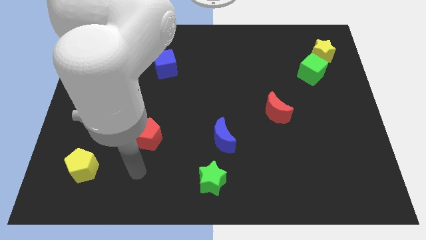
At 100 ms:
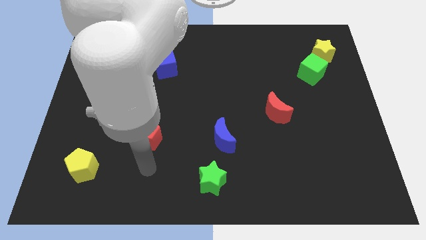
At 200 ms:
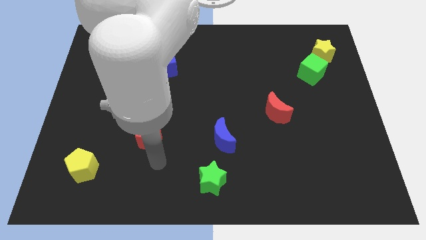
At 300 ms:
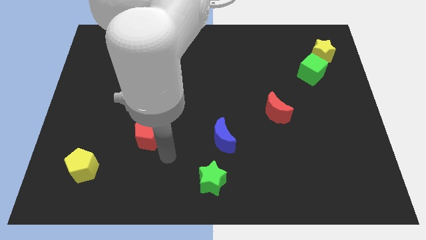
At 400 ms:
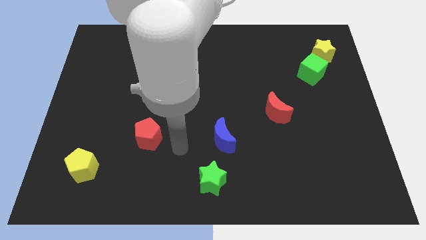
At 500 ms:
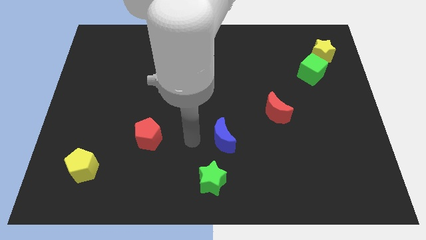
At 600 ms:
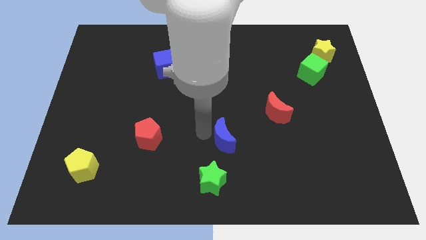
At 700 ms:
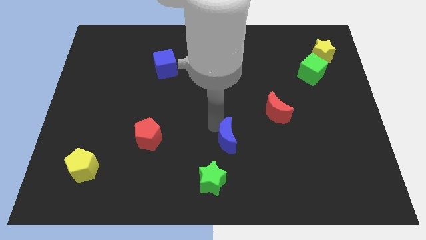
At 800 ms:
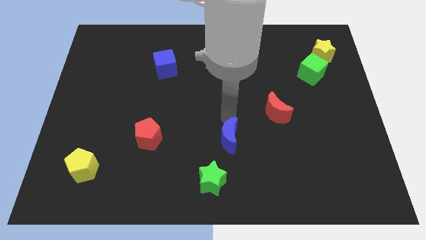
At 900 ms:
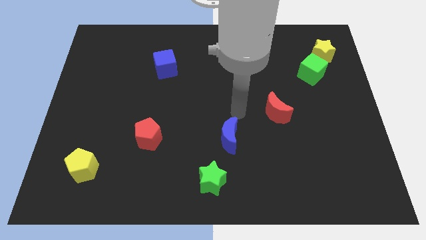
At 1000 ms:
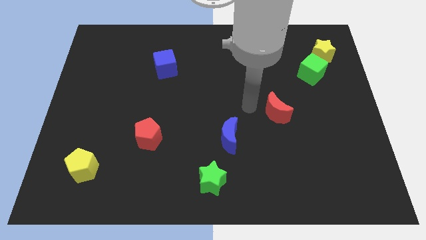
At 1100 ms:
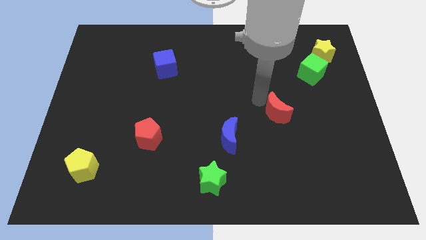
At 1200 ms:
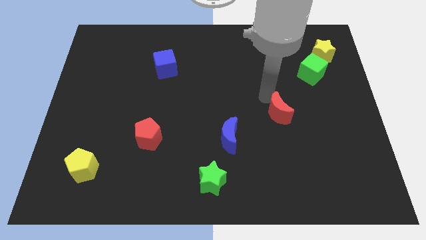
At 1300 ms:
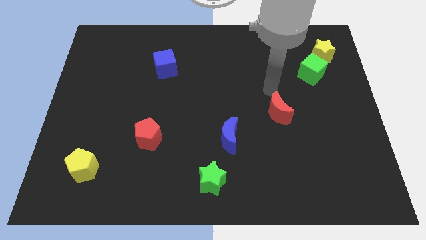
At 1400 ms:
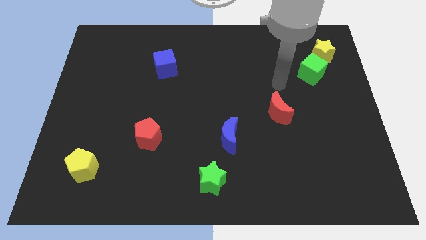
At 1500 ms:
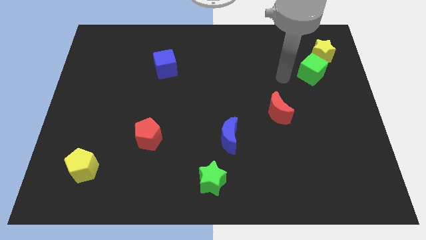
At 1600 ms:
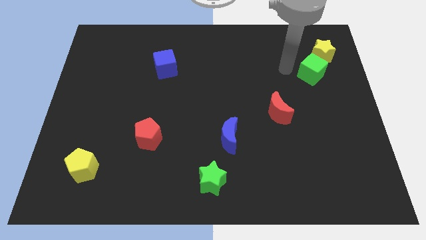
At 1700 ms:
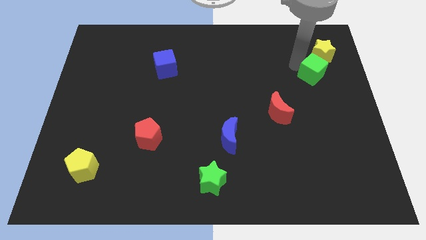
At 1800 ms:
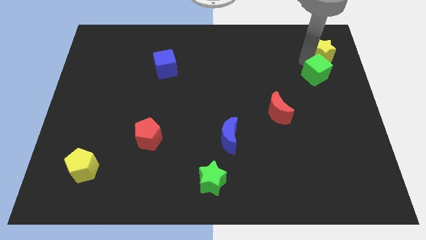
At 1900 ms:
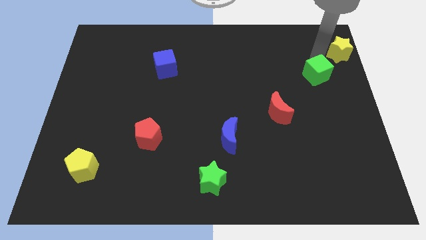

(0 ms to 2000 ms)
pull the green cube apart from the yellow star

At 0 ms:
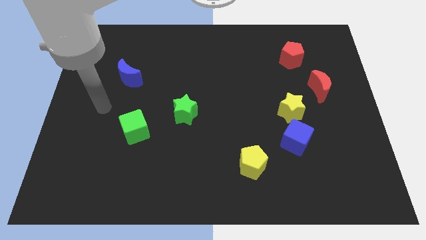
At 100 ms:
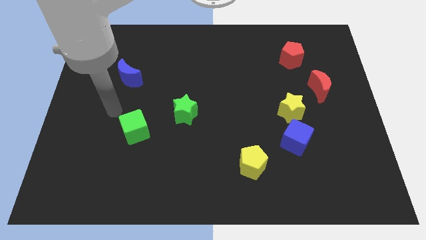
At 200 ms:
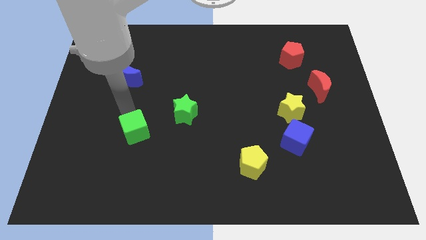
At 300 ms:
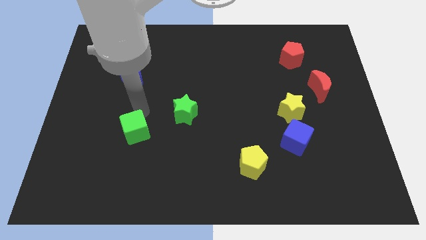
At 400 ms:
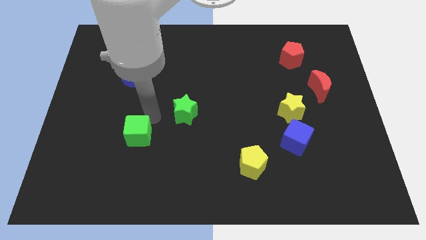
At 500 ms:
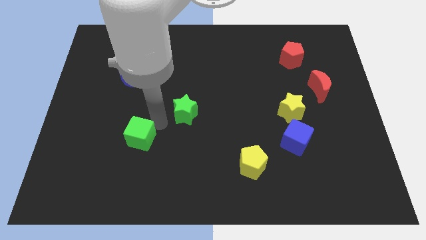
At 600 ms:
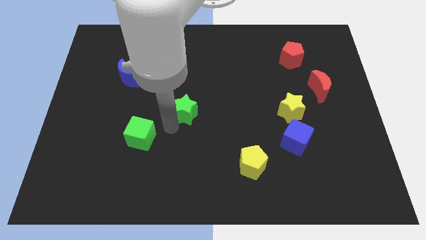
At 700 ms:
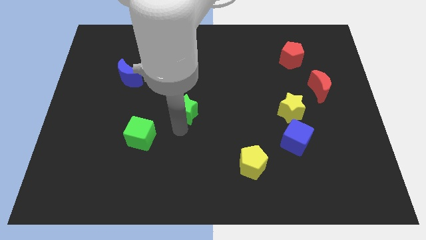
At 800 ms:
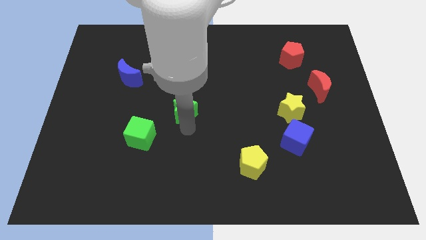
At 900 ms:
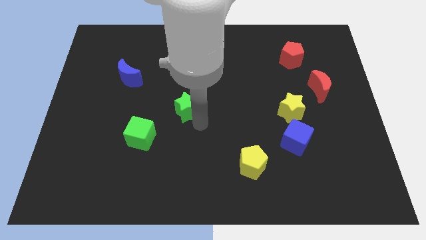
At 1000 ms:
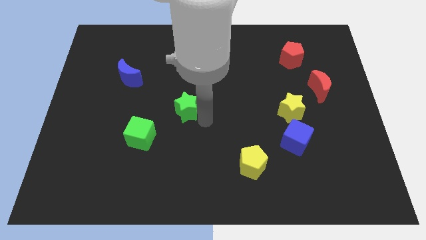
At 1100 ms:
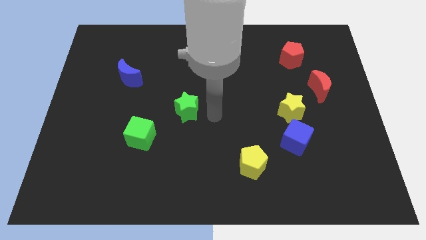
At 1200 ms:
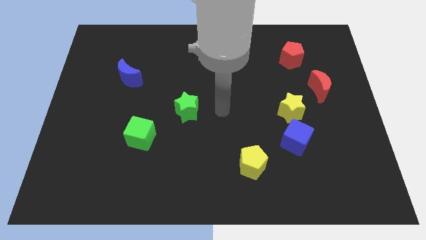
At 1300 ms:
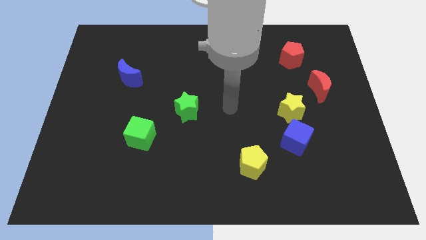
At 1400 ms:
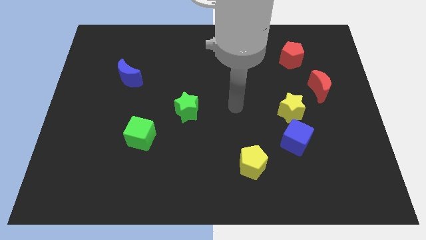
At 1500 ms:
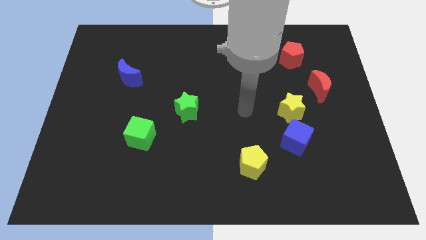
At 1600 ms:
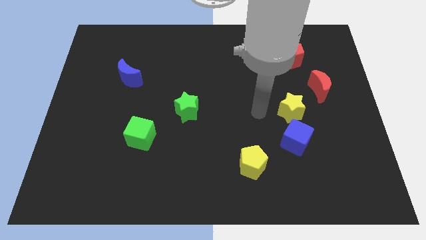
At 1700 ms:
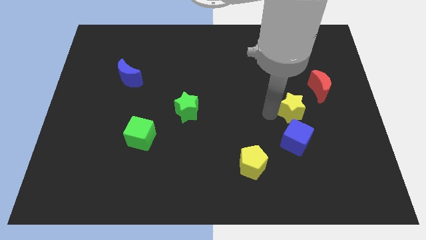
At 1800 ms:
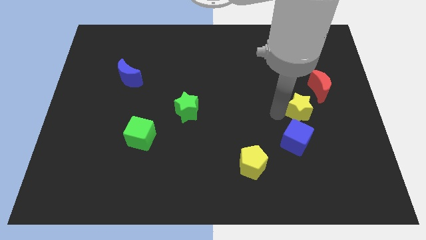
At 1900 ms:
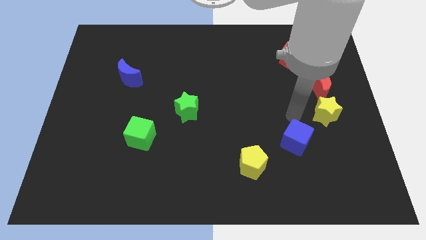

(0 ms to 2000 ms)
separate the blue cube from the yellow star

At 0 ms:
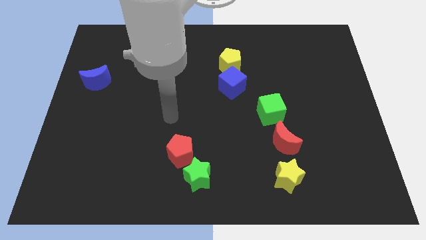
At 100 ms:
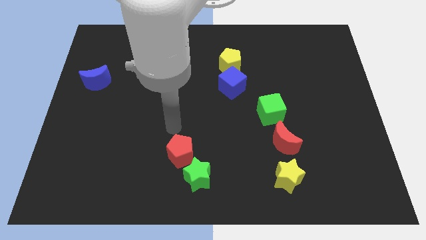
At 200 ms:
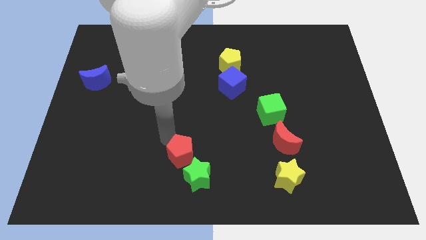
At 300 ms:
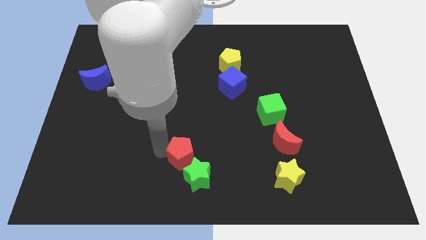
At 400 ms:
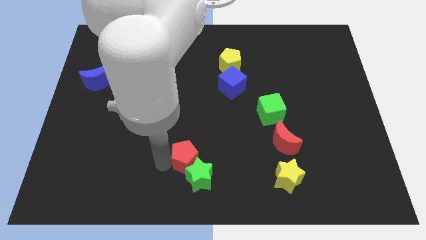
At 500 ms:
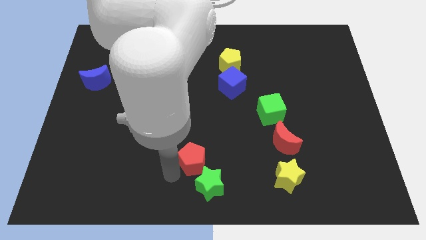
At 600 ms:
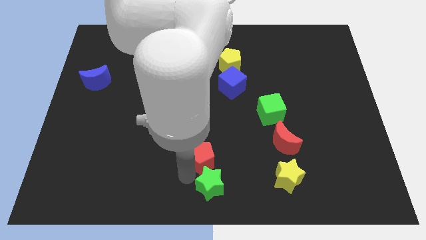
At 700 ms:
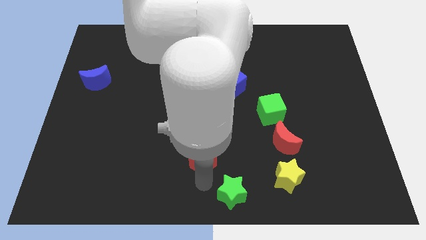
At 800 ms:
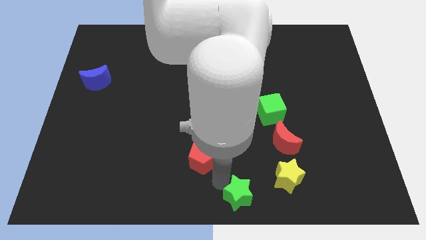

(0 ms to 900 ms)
move the red pentagon away from the green star

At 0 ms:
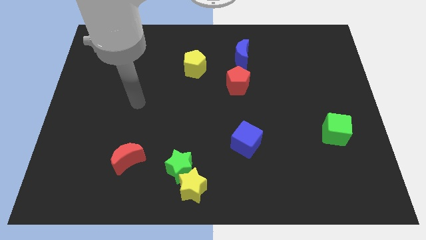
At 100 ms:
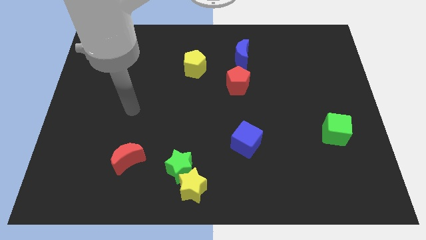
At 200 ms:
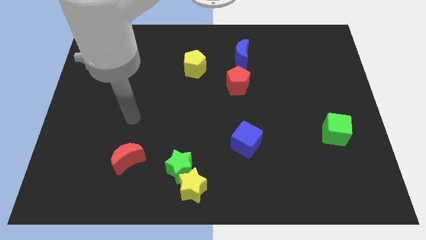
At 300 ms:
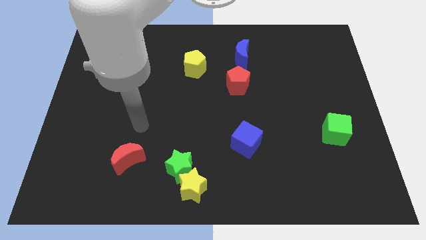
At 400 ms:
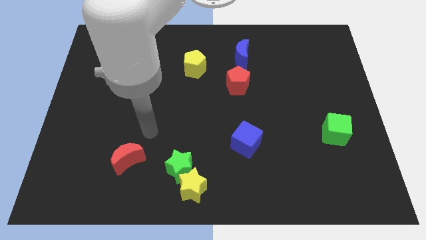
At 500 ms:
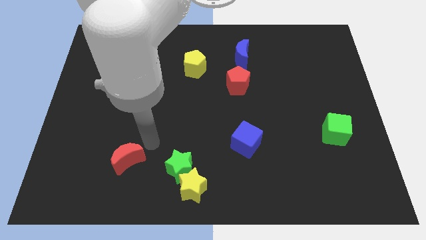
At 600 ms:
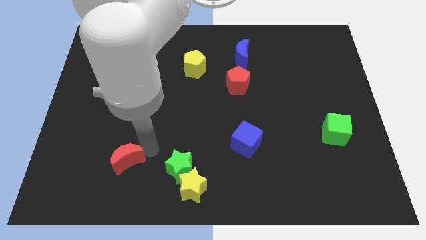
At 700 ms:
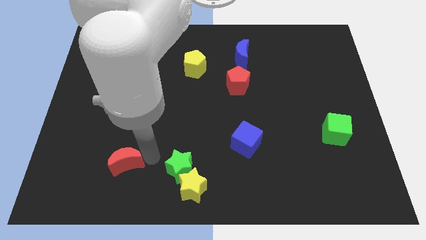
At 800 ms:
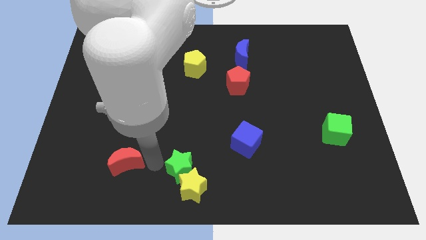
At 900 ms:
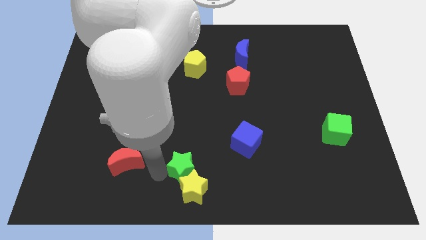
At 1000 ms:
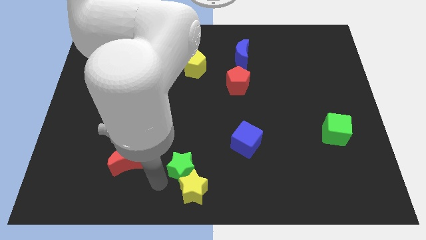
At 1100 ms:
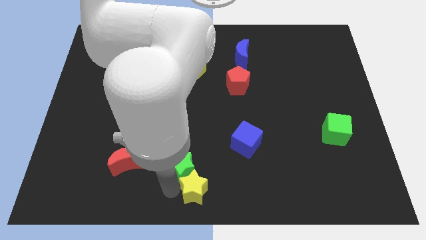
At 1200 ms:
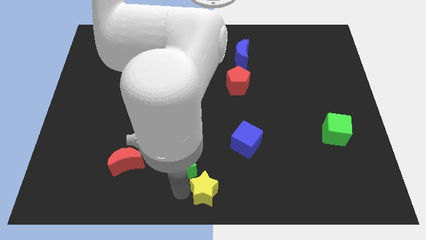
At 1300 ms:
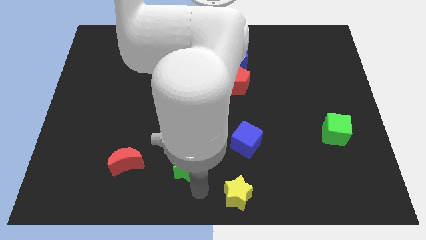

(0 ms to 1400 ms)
move the green star away from the yellow star

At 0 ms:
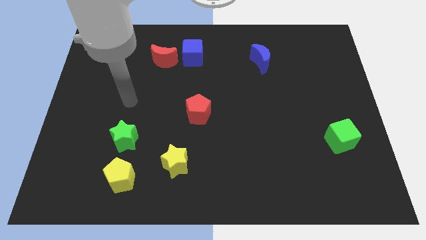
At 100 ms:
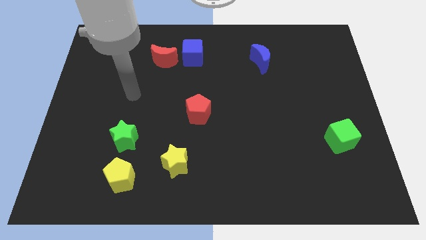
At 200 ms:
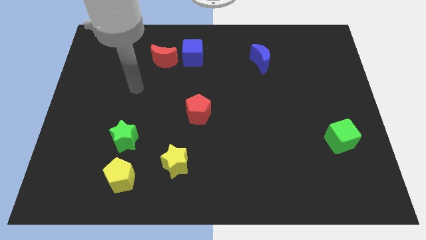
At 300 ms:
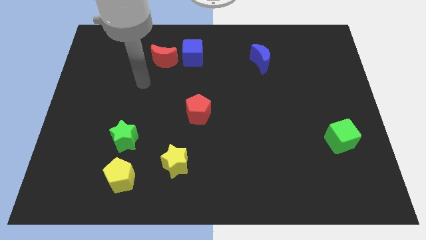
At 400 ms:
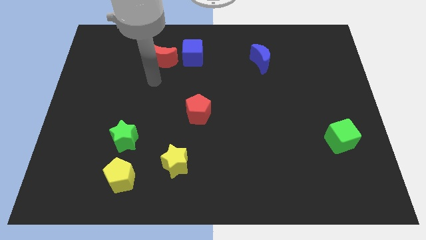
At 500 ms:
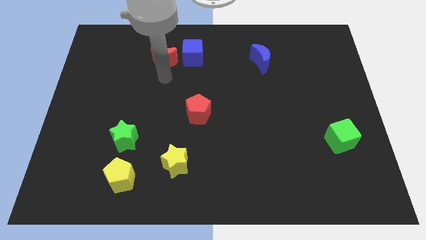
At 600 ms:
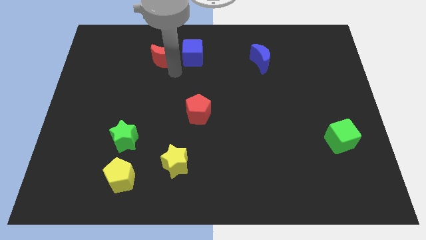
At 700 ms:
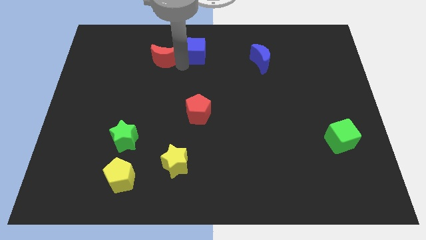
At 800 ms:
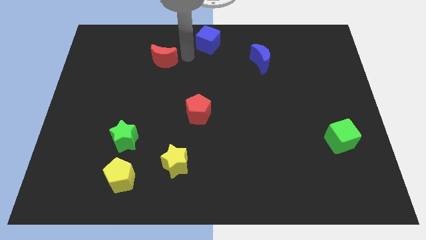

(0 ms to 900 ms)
move the red moon away from the blue cube

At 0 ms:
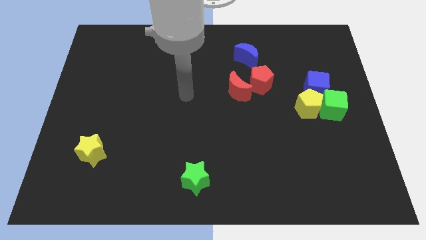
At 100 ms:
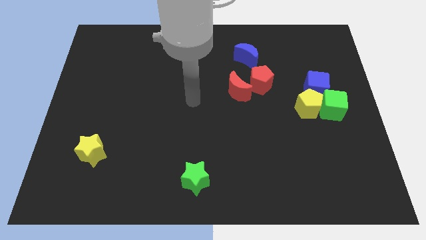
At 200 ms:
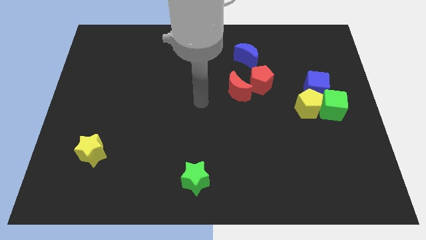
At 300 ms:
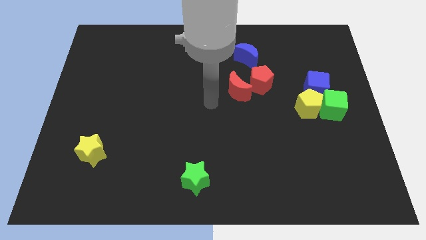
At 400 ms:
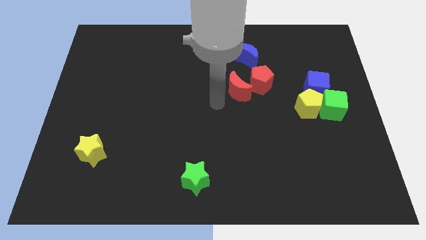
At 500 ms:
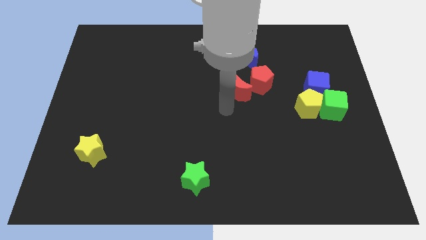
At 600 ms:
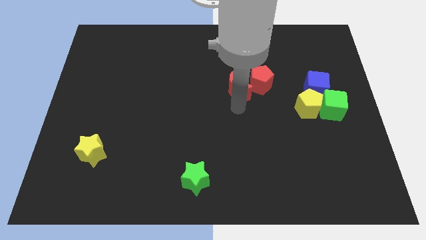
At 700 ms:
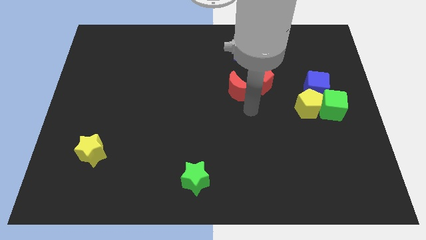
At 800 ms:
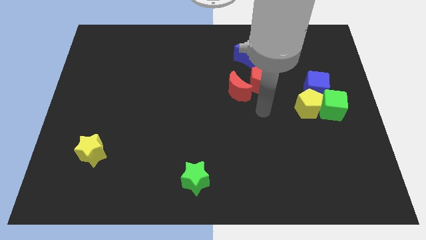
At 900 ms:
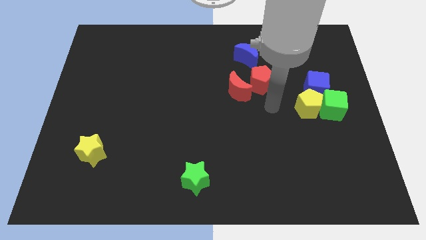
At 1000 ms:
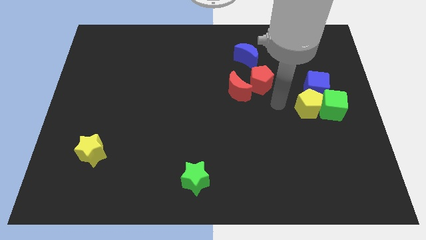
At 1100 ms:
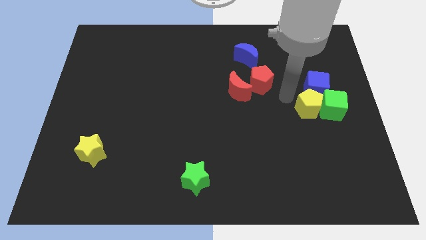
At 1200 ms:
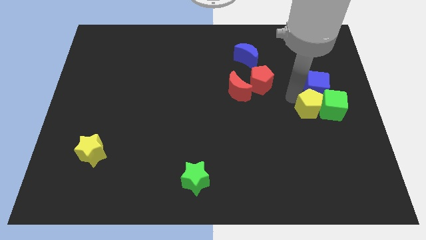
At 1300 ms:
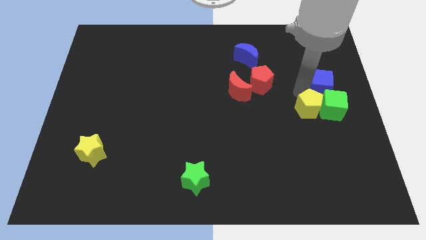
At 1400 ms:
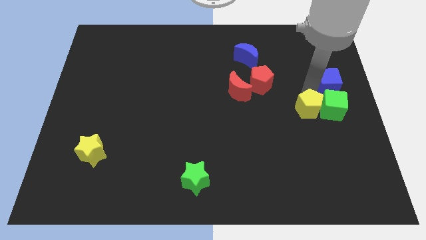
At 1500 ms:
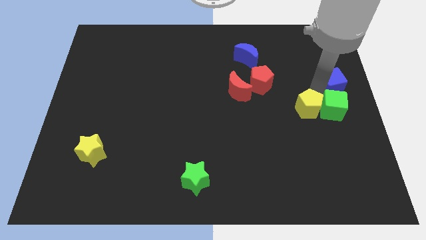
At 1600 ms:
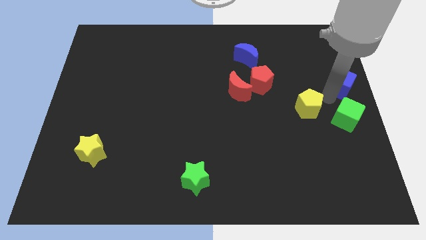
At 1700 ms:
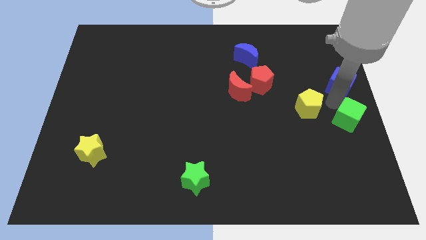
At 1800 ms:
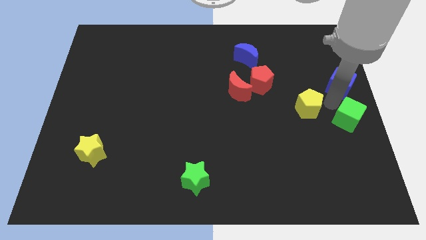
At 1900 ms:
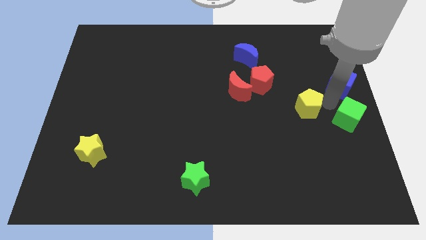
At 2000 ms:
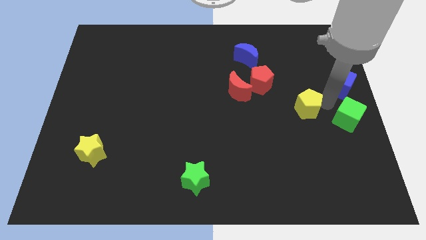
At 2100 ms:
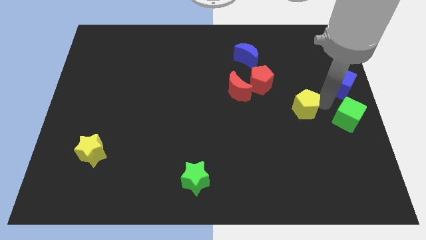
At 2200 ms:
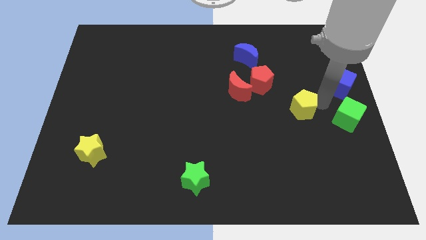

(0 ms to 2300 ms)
pull the yellow pentagon apart from the green cube and blue cube

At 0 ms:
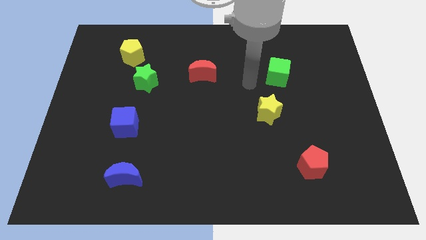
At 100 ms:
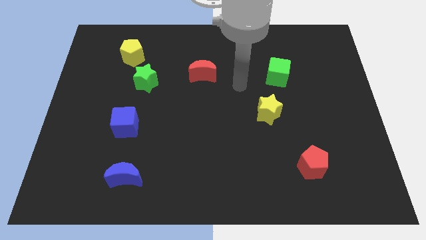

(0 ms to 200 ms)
pull the green star apart from the yellow pentagon
